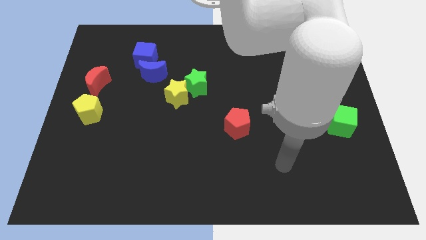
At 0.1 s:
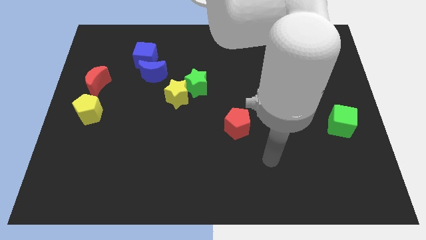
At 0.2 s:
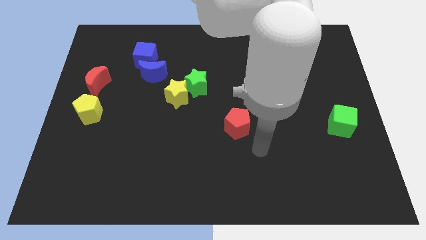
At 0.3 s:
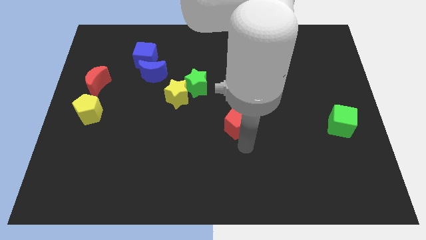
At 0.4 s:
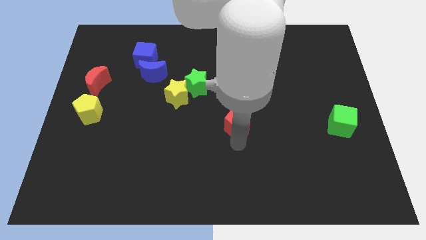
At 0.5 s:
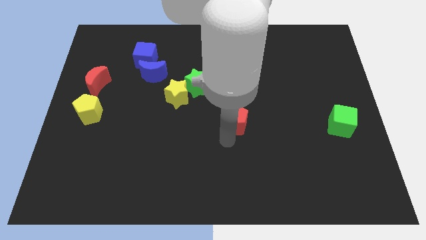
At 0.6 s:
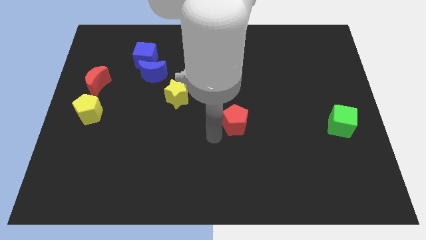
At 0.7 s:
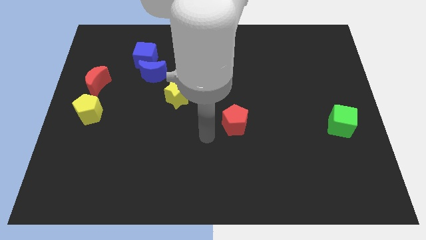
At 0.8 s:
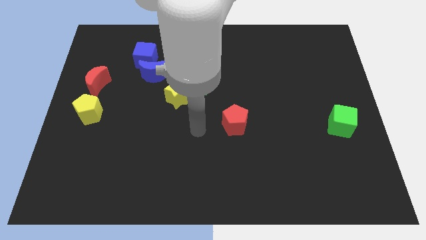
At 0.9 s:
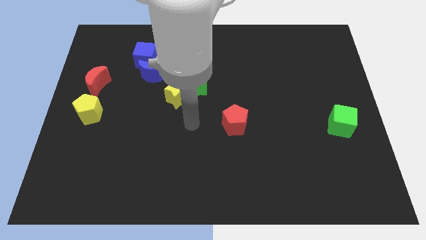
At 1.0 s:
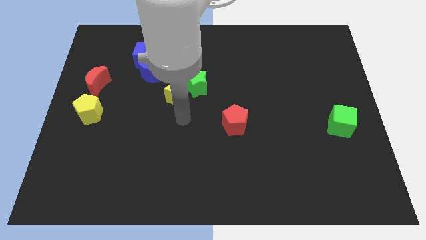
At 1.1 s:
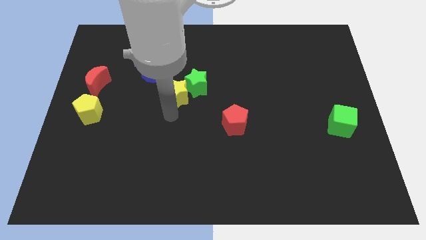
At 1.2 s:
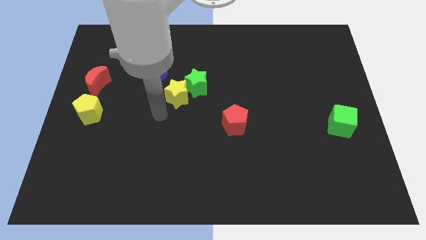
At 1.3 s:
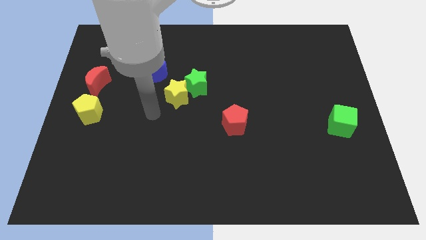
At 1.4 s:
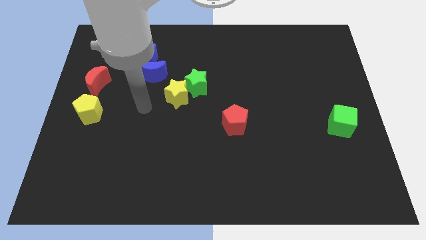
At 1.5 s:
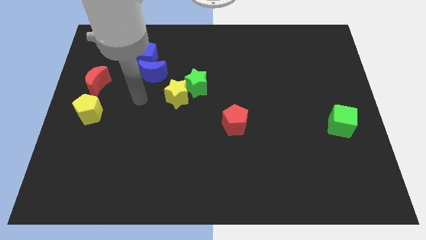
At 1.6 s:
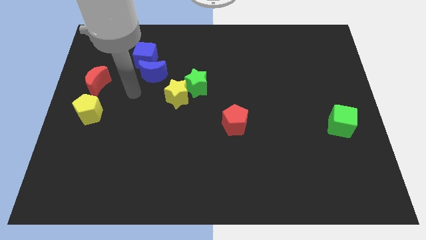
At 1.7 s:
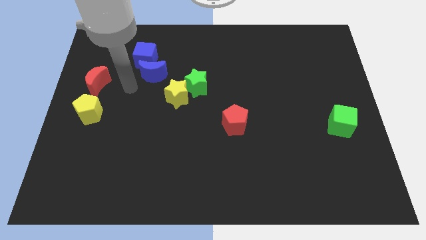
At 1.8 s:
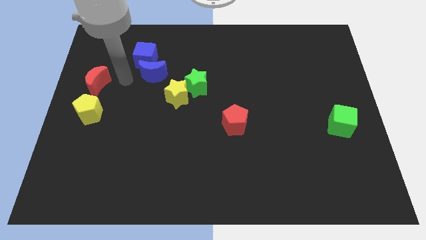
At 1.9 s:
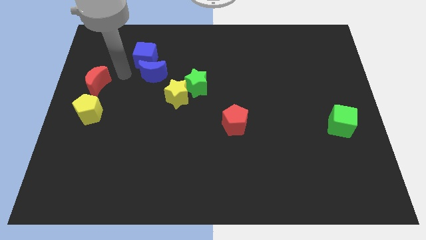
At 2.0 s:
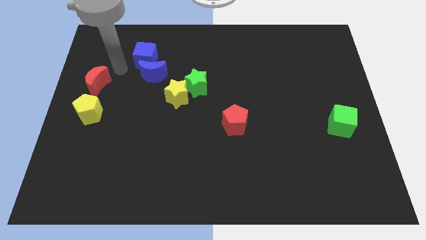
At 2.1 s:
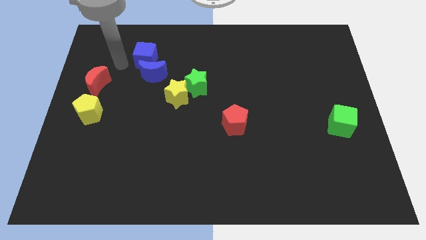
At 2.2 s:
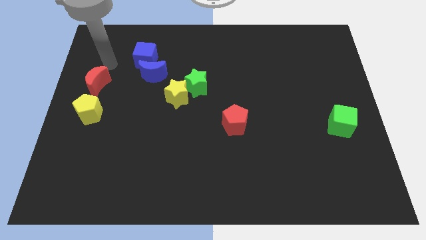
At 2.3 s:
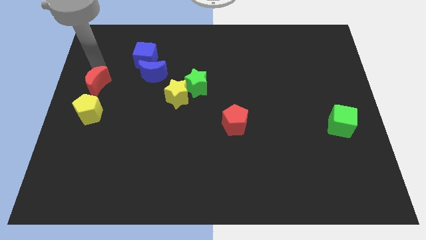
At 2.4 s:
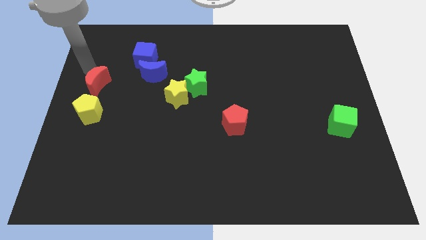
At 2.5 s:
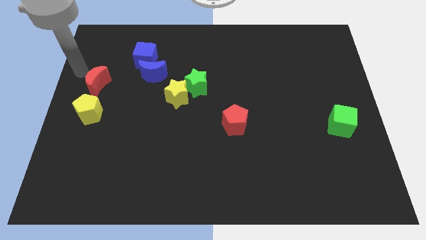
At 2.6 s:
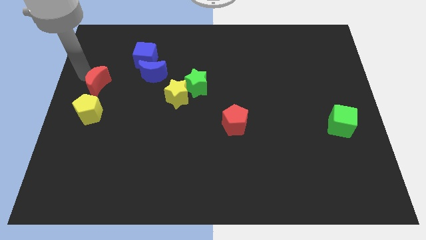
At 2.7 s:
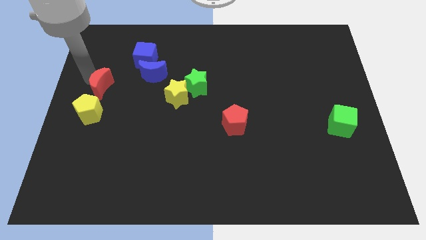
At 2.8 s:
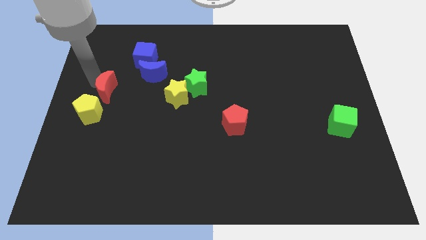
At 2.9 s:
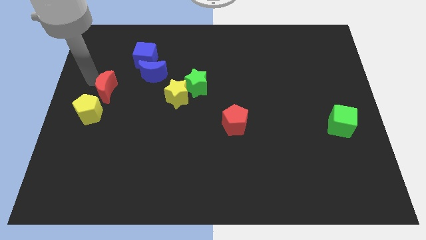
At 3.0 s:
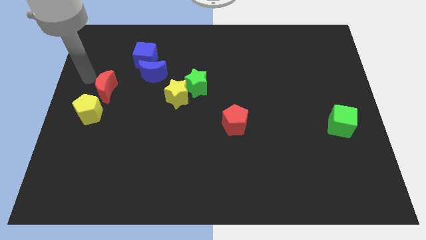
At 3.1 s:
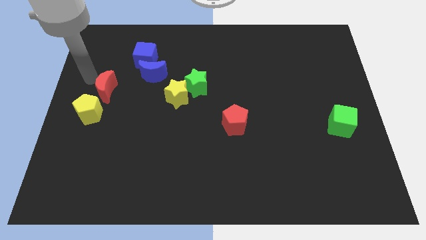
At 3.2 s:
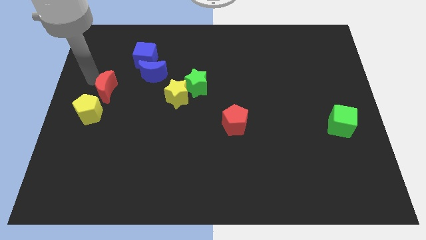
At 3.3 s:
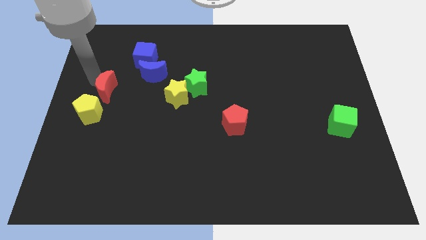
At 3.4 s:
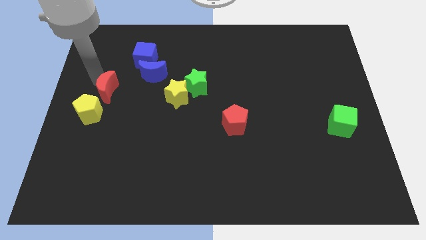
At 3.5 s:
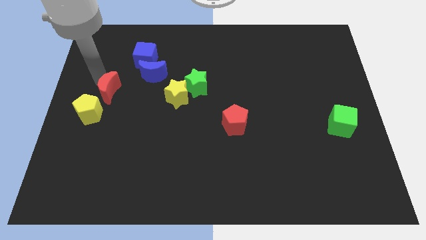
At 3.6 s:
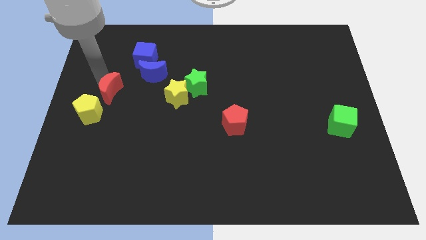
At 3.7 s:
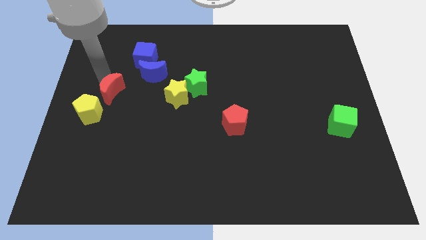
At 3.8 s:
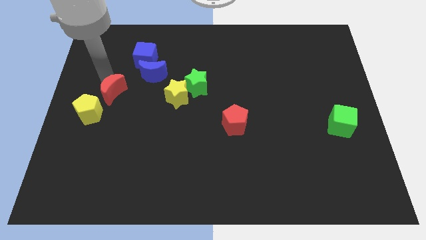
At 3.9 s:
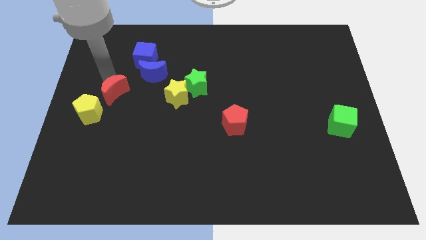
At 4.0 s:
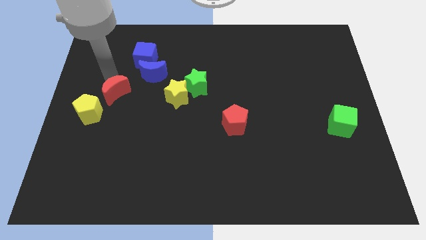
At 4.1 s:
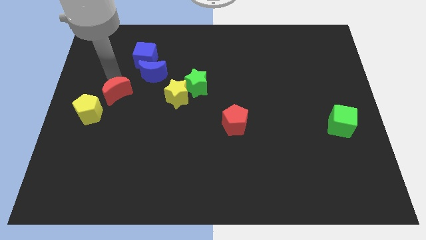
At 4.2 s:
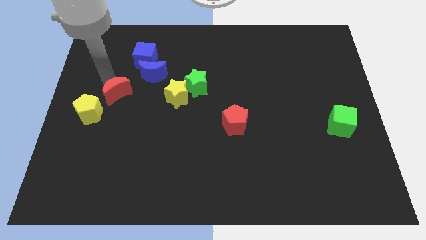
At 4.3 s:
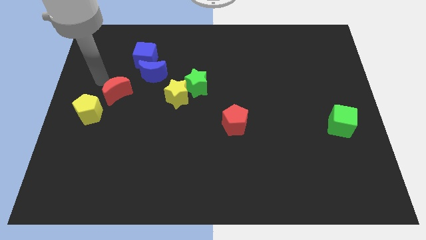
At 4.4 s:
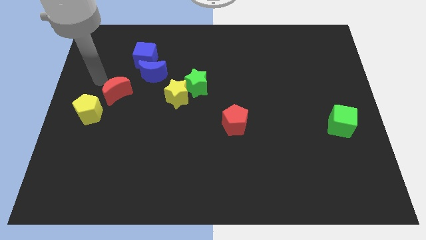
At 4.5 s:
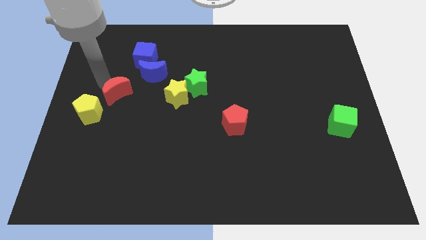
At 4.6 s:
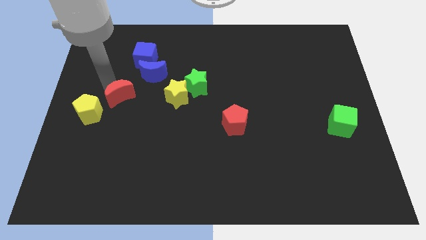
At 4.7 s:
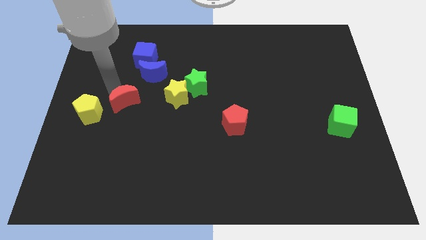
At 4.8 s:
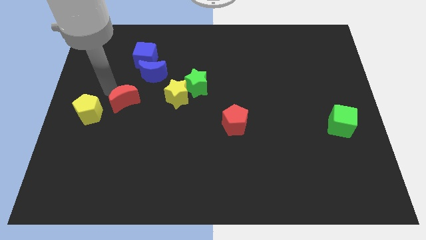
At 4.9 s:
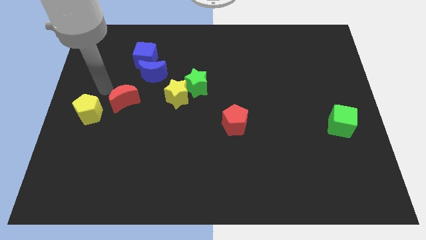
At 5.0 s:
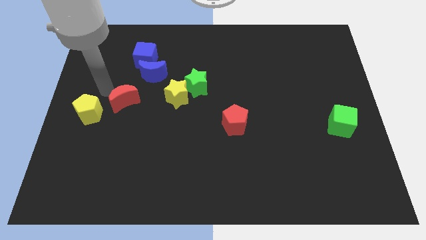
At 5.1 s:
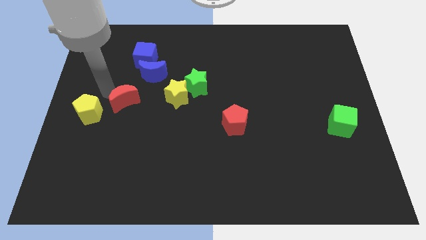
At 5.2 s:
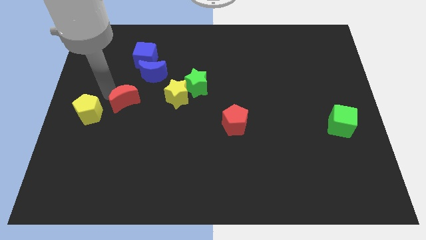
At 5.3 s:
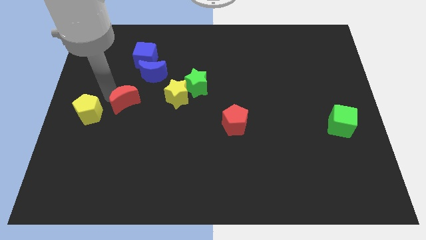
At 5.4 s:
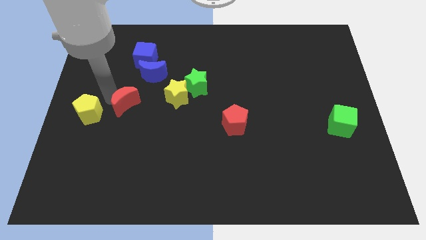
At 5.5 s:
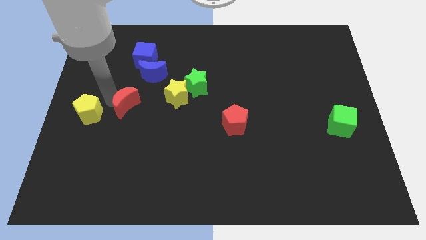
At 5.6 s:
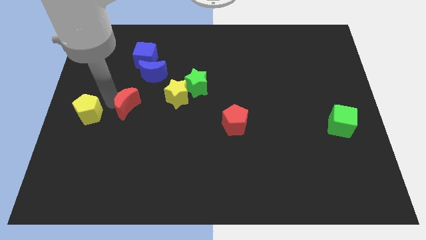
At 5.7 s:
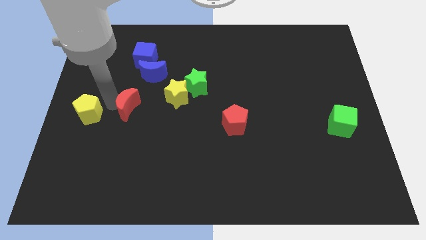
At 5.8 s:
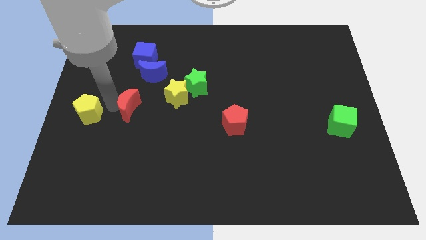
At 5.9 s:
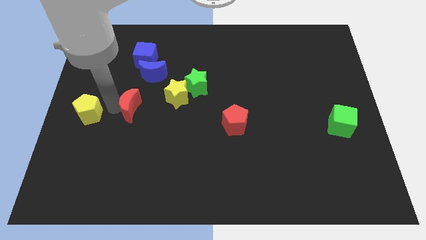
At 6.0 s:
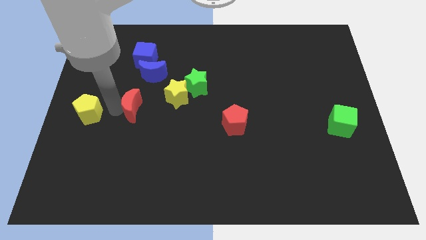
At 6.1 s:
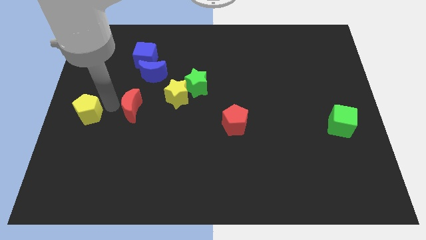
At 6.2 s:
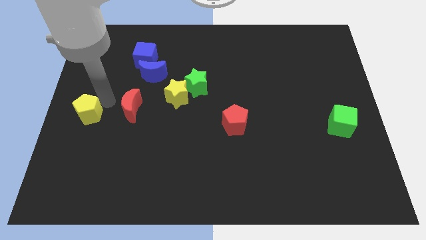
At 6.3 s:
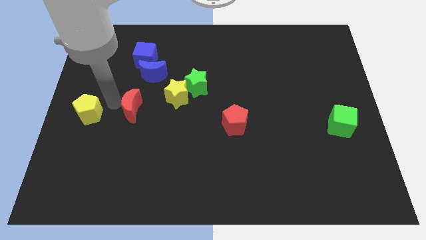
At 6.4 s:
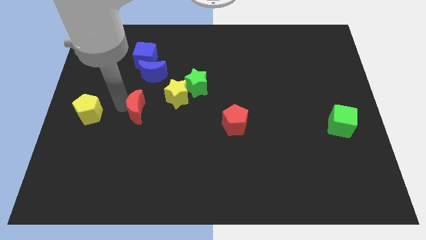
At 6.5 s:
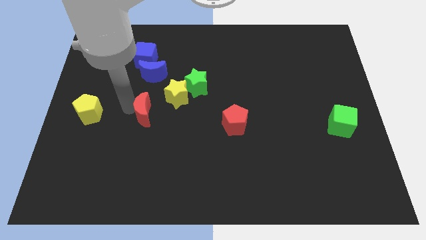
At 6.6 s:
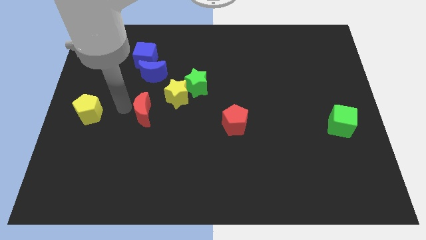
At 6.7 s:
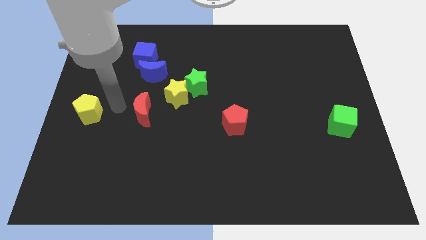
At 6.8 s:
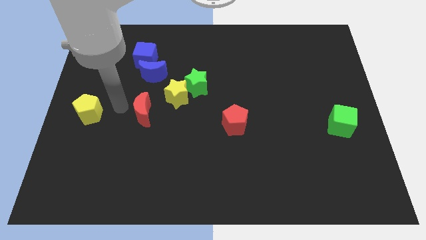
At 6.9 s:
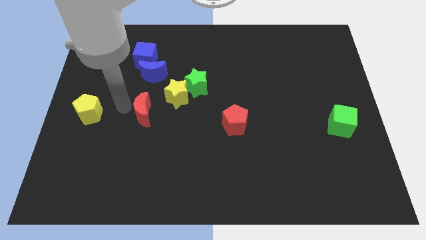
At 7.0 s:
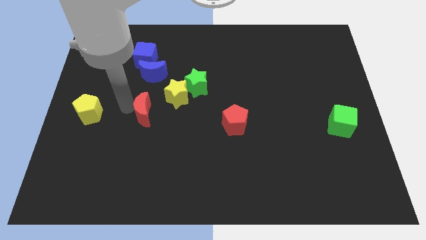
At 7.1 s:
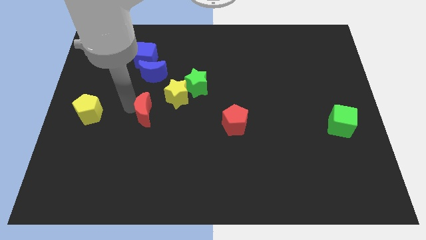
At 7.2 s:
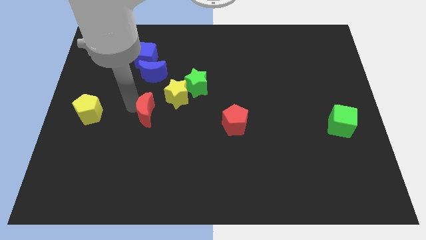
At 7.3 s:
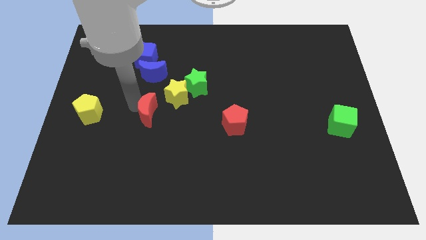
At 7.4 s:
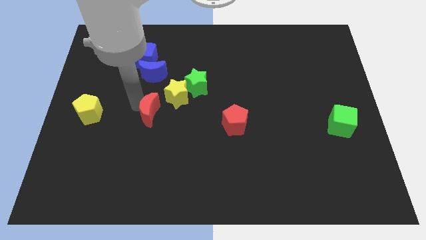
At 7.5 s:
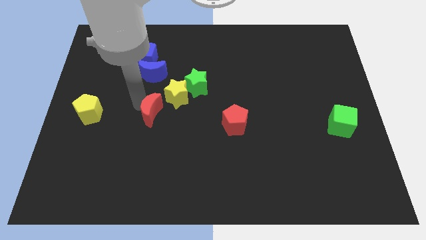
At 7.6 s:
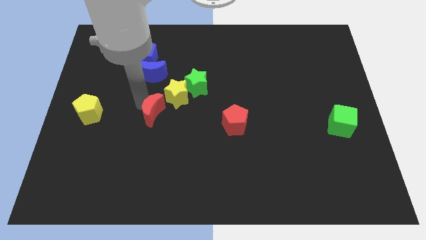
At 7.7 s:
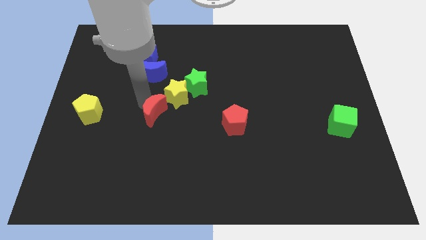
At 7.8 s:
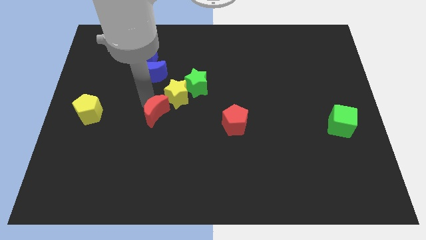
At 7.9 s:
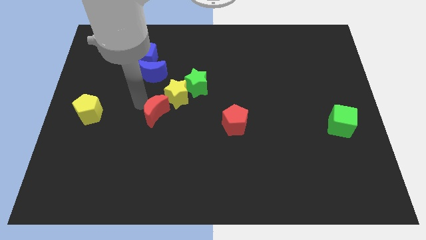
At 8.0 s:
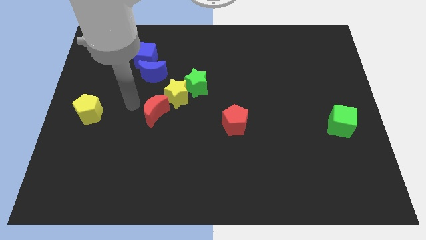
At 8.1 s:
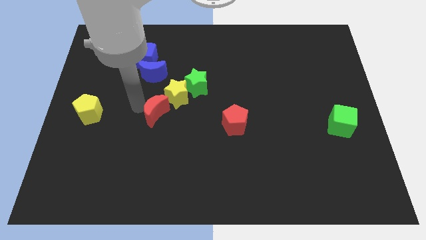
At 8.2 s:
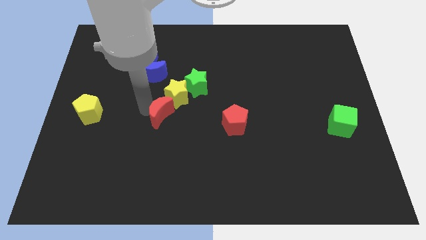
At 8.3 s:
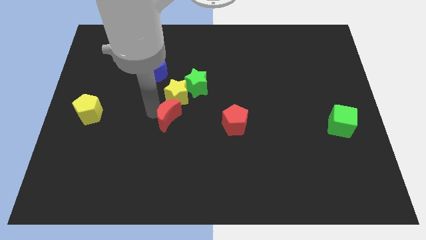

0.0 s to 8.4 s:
put the red moon to the left of the red pentagon
